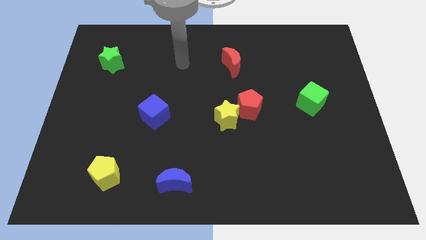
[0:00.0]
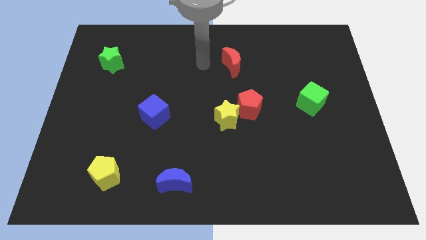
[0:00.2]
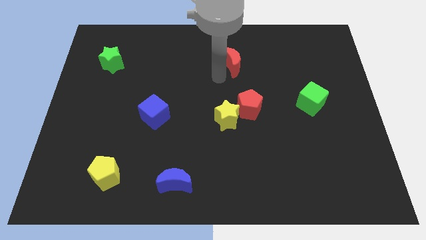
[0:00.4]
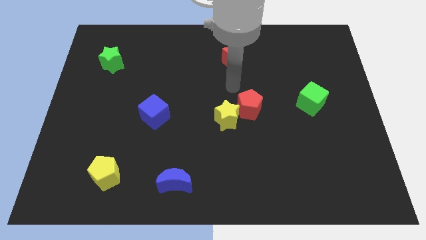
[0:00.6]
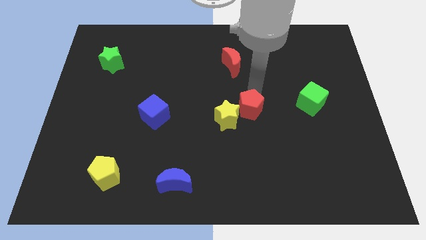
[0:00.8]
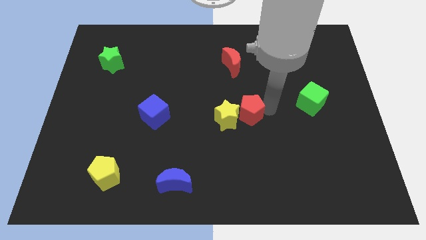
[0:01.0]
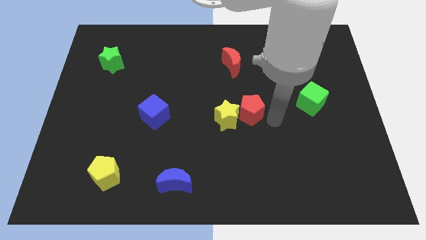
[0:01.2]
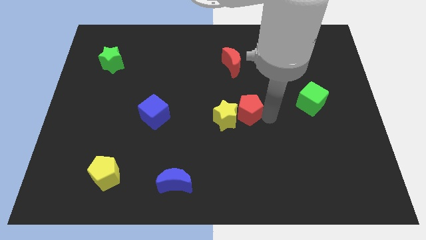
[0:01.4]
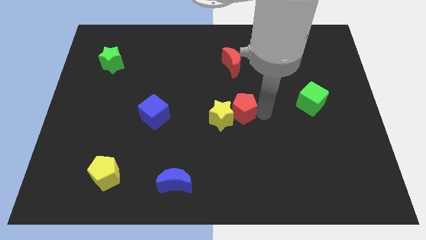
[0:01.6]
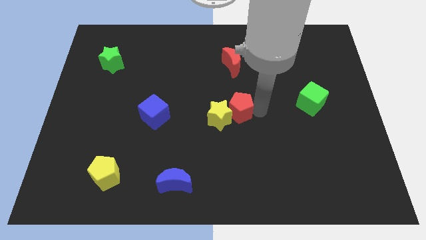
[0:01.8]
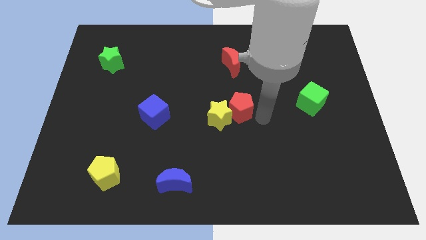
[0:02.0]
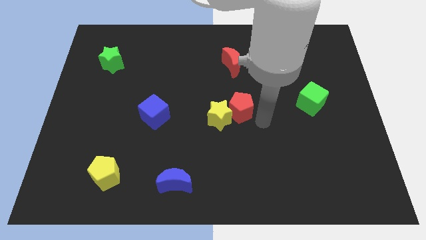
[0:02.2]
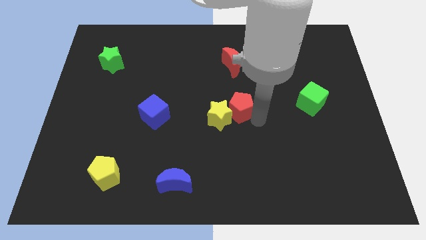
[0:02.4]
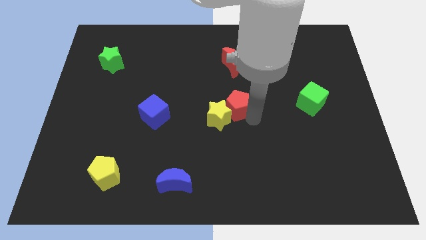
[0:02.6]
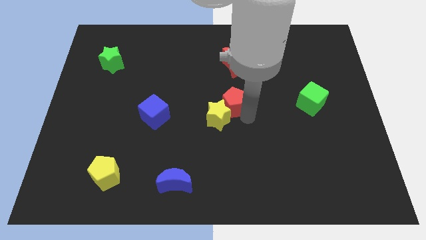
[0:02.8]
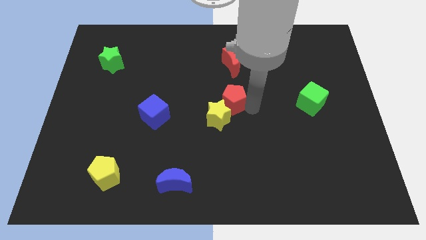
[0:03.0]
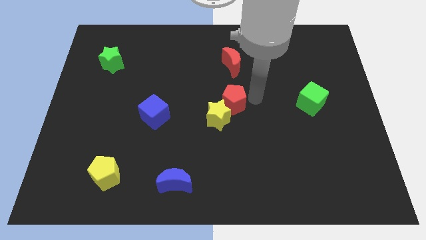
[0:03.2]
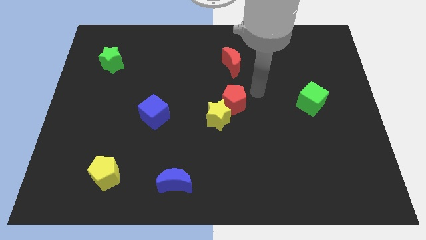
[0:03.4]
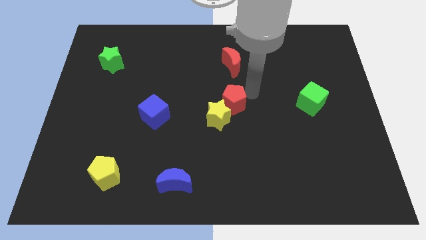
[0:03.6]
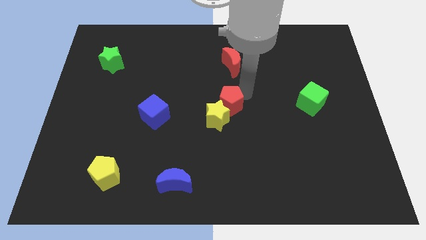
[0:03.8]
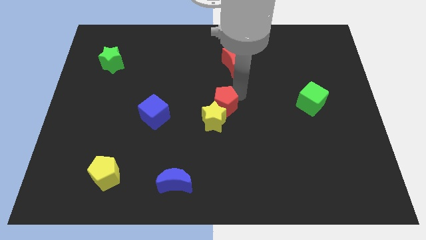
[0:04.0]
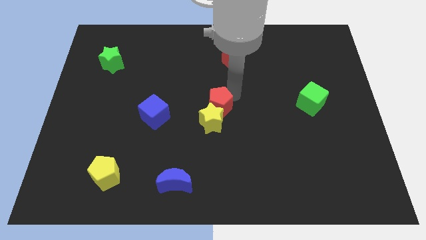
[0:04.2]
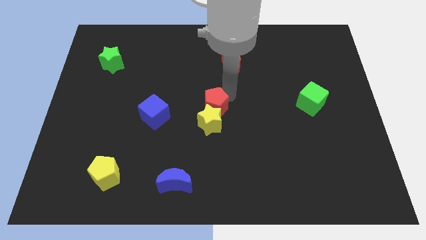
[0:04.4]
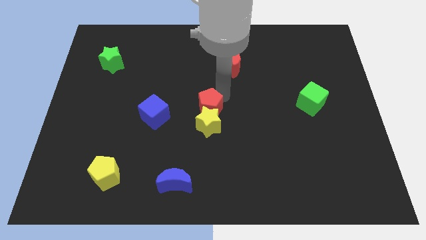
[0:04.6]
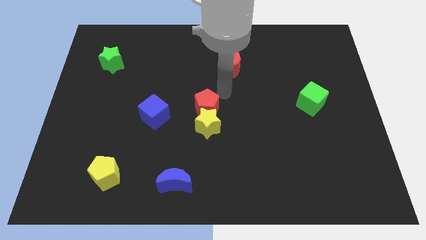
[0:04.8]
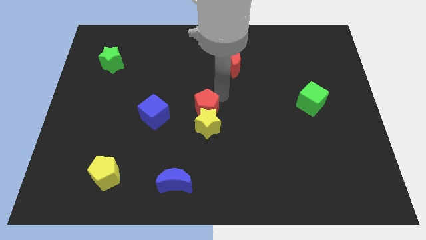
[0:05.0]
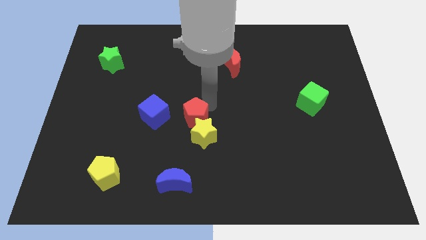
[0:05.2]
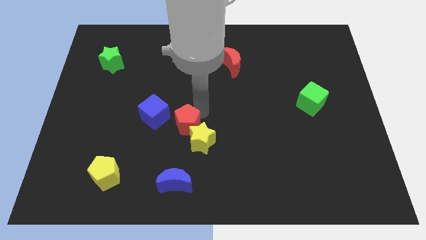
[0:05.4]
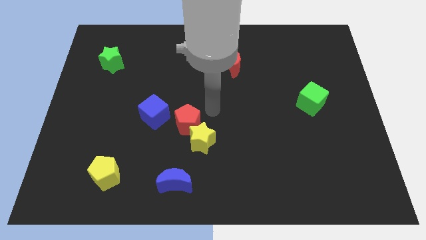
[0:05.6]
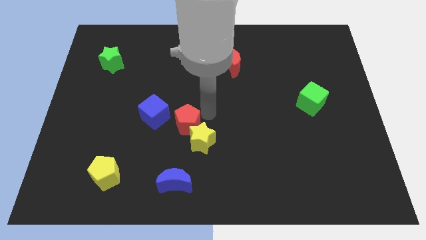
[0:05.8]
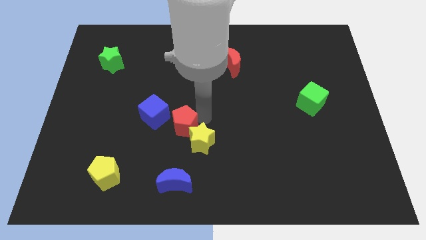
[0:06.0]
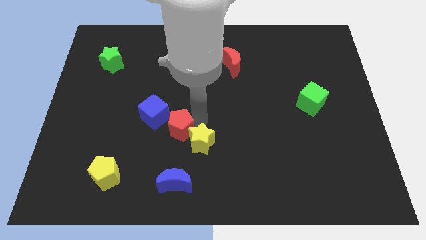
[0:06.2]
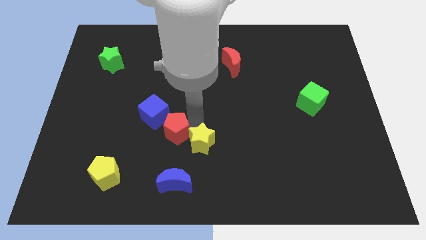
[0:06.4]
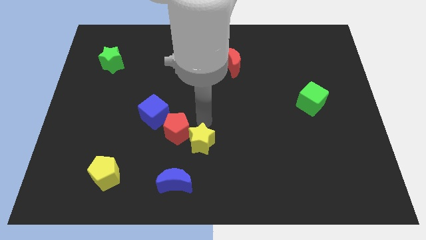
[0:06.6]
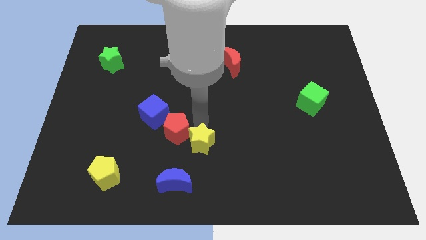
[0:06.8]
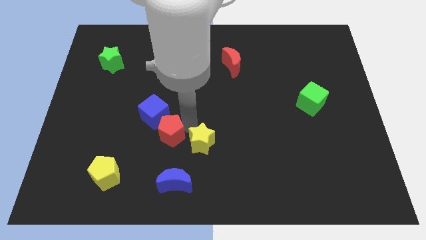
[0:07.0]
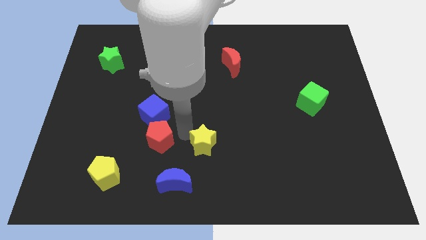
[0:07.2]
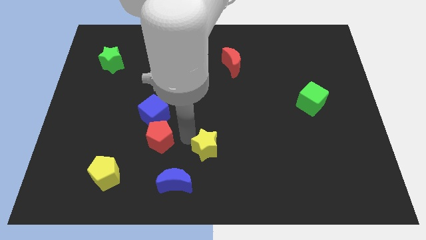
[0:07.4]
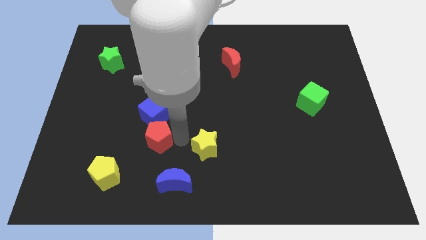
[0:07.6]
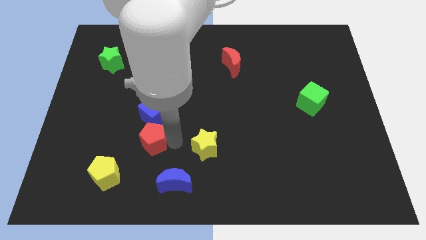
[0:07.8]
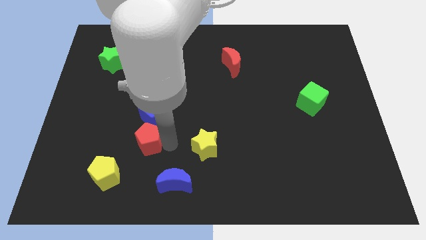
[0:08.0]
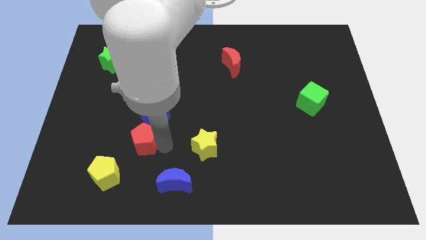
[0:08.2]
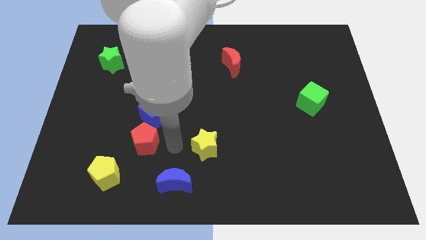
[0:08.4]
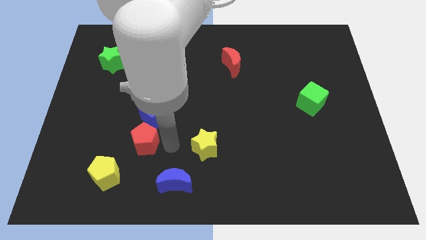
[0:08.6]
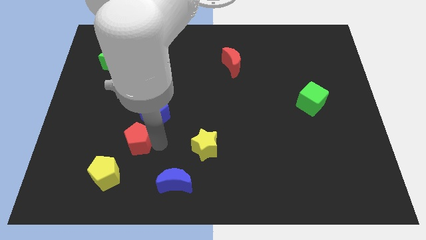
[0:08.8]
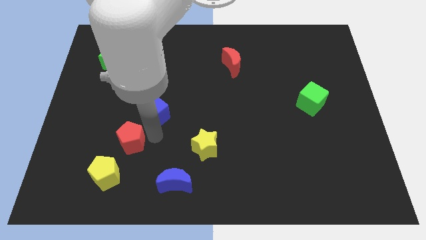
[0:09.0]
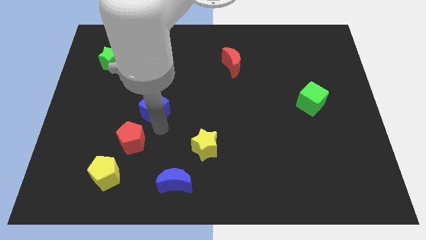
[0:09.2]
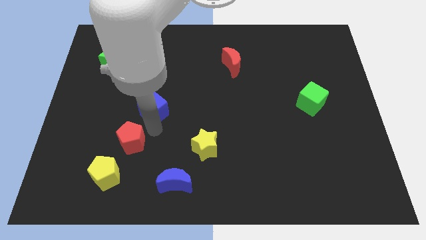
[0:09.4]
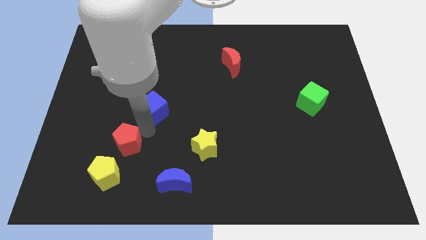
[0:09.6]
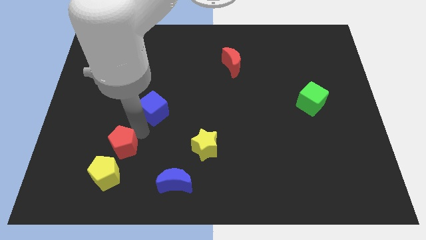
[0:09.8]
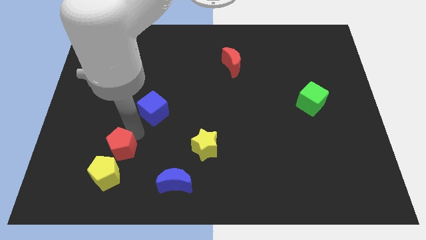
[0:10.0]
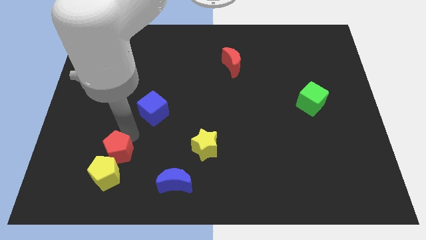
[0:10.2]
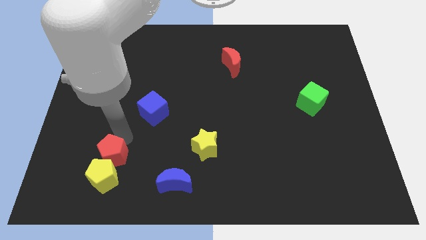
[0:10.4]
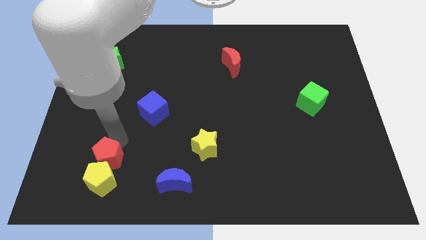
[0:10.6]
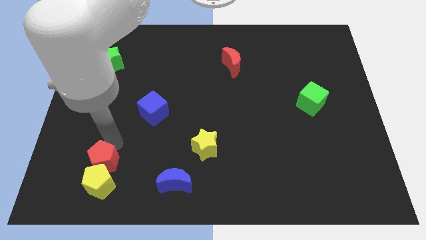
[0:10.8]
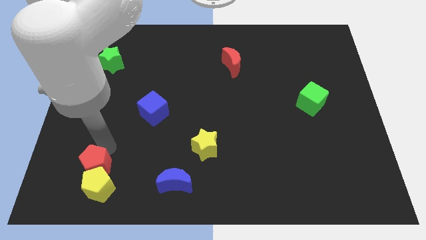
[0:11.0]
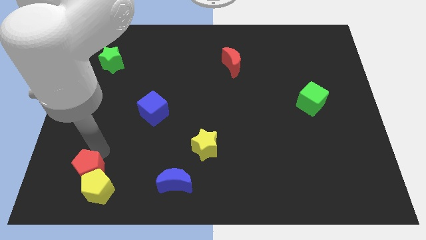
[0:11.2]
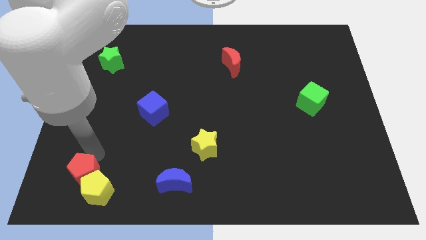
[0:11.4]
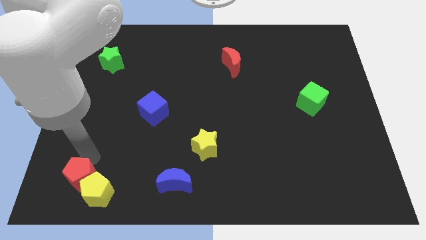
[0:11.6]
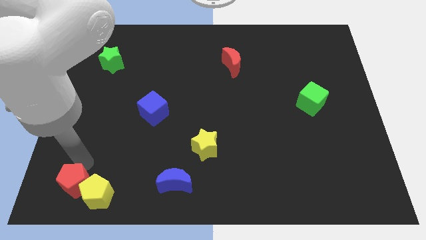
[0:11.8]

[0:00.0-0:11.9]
move the red pentagon to the lower left corner

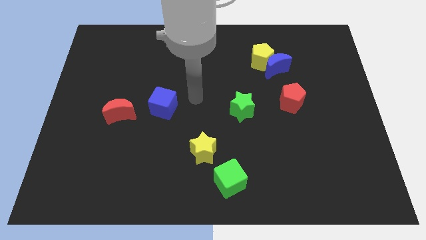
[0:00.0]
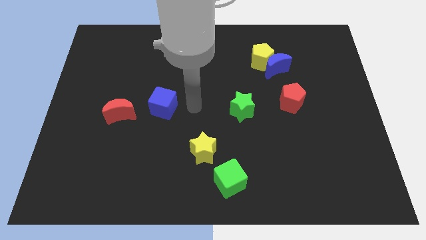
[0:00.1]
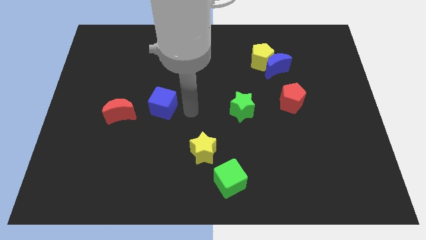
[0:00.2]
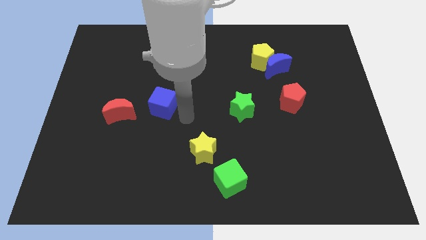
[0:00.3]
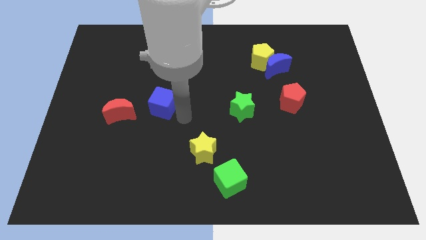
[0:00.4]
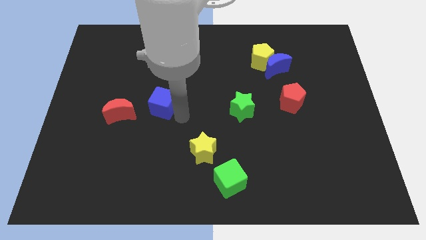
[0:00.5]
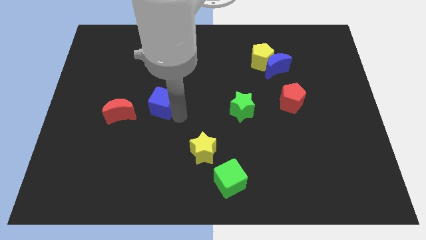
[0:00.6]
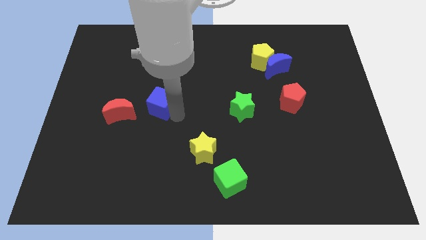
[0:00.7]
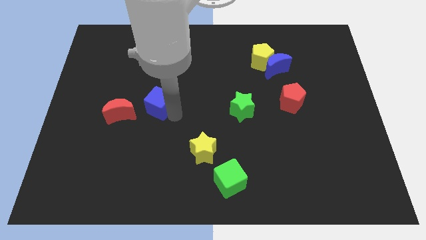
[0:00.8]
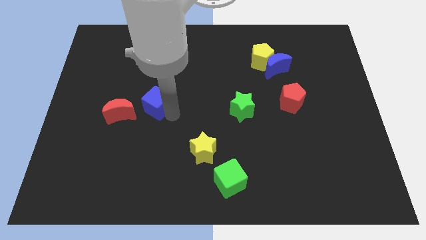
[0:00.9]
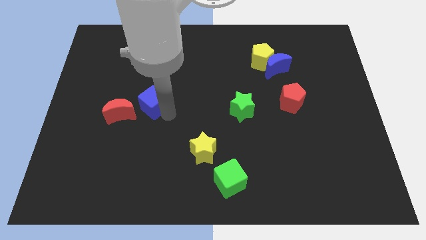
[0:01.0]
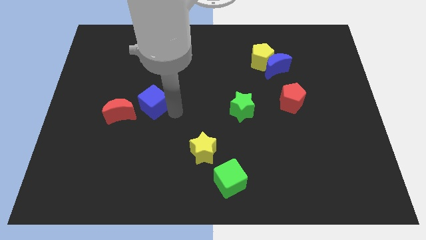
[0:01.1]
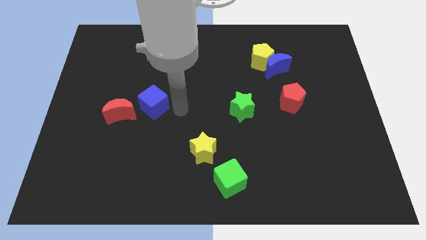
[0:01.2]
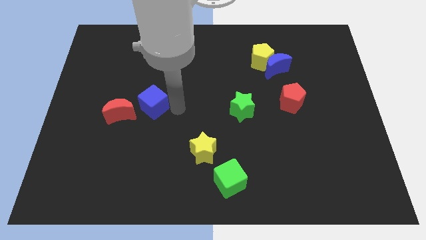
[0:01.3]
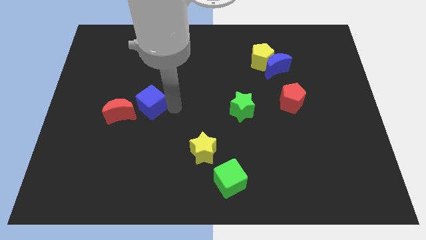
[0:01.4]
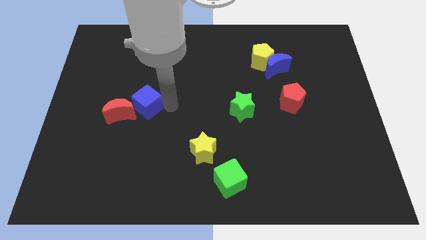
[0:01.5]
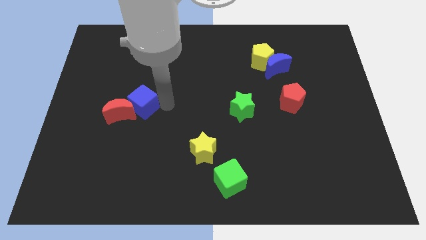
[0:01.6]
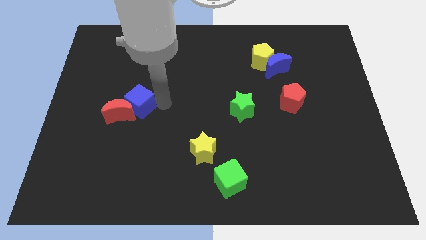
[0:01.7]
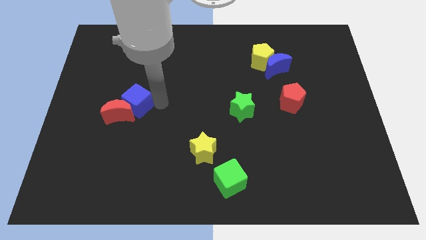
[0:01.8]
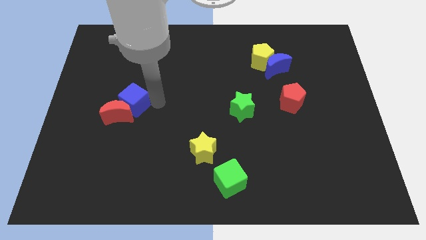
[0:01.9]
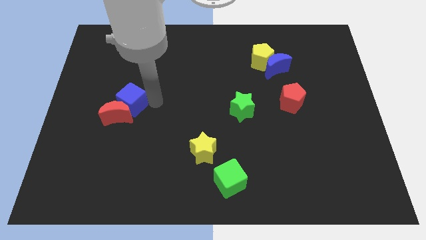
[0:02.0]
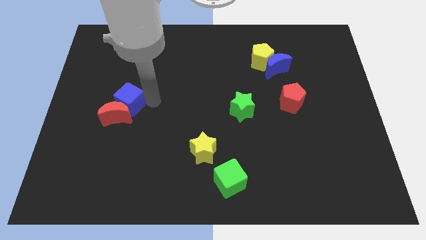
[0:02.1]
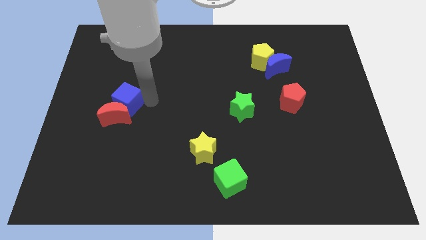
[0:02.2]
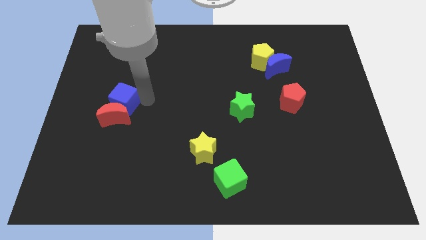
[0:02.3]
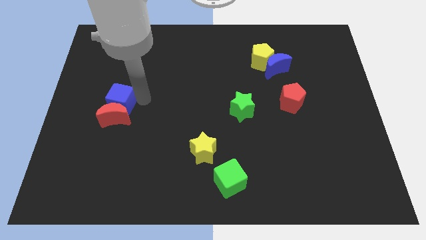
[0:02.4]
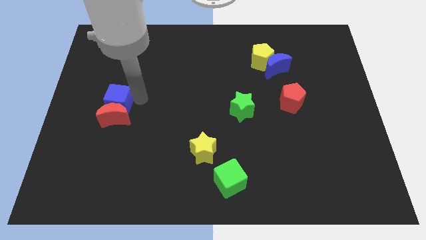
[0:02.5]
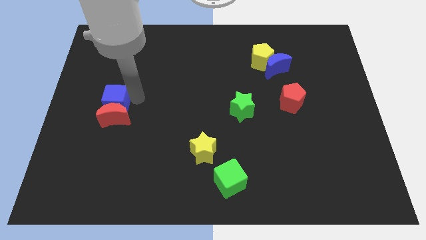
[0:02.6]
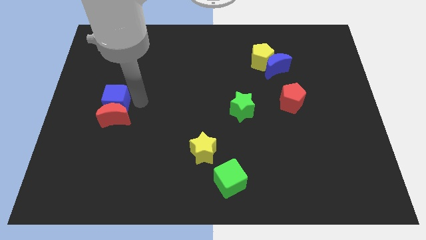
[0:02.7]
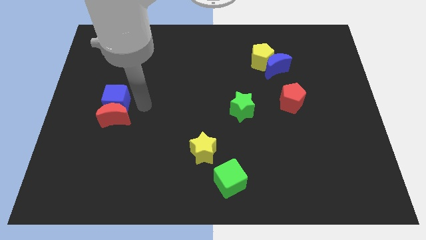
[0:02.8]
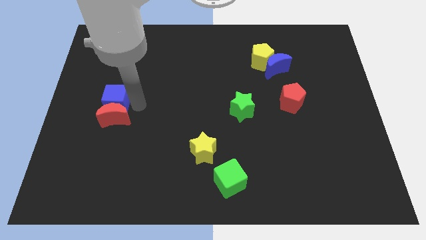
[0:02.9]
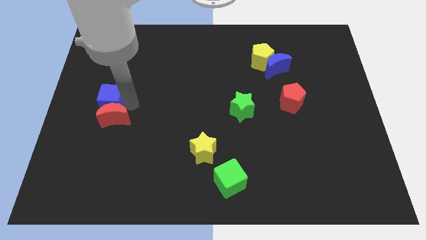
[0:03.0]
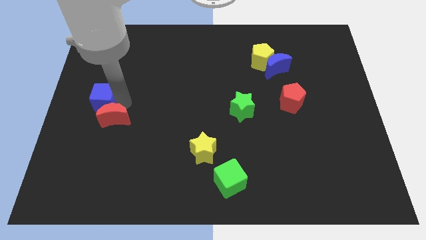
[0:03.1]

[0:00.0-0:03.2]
push the blue cube to the center left
